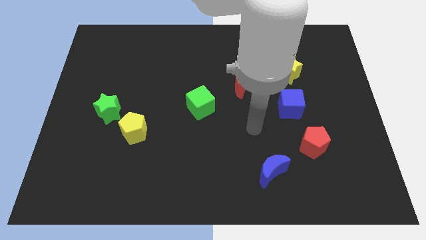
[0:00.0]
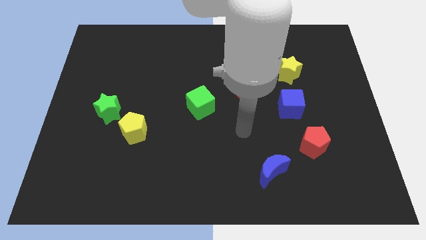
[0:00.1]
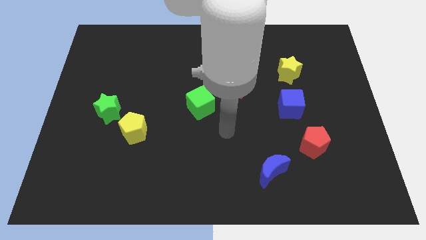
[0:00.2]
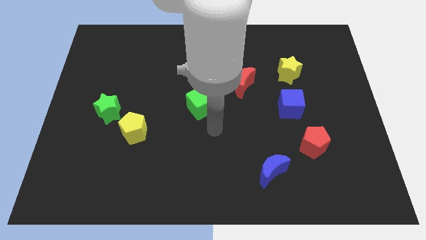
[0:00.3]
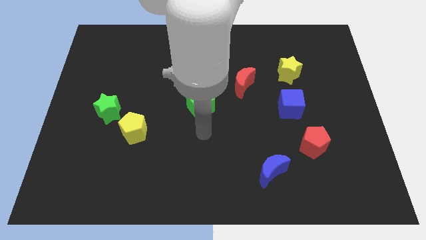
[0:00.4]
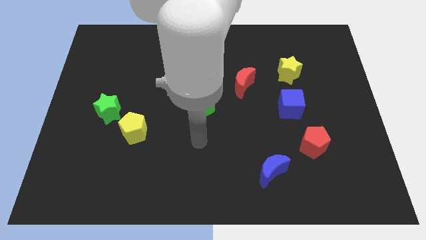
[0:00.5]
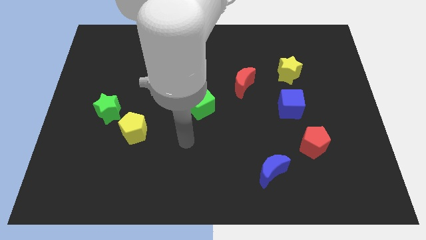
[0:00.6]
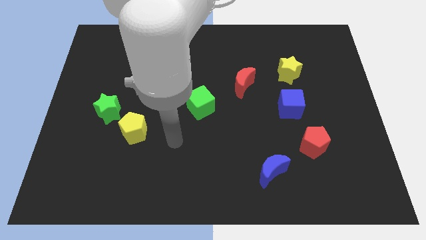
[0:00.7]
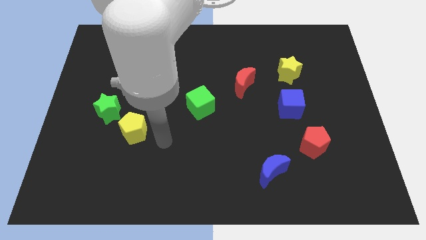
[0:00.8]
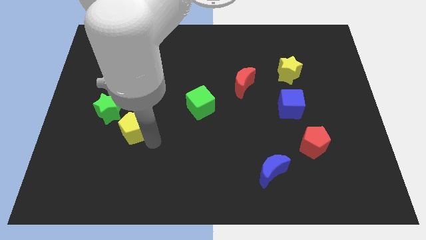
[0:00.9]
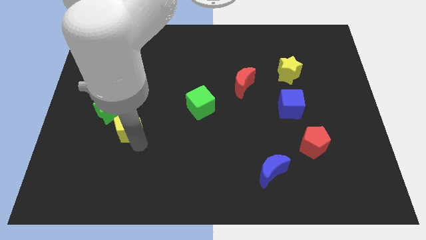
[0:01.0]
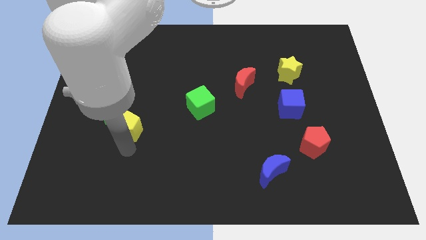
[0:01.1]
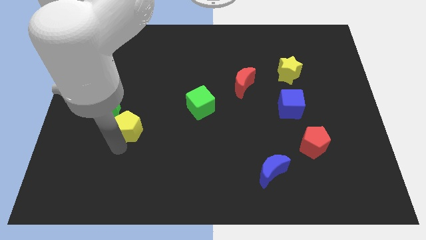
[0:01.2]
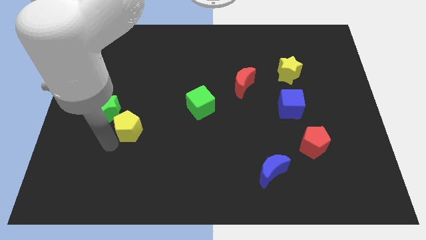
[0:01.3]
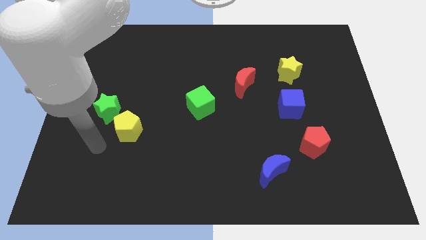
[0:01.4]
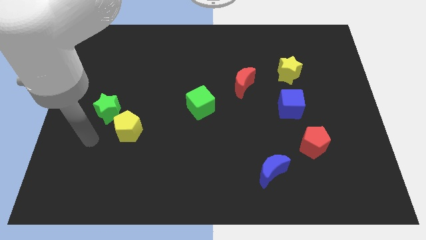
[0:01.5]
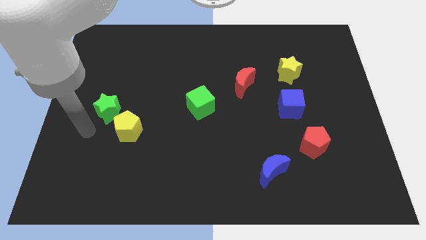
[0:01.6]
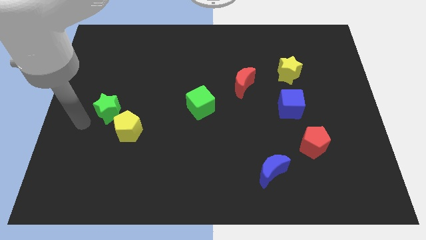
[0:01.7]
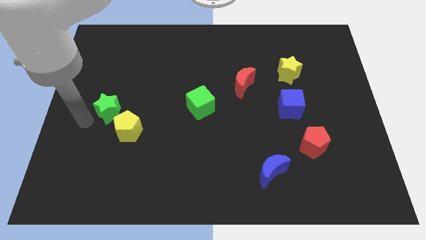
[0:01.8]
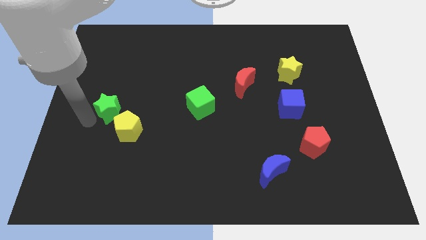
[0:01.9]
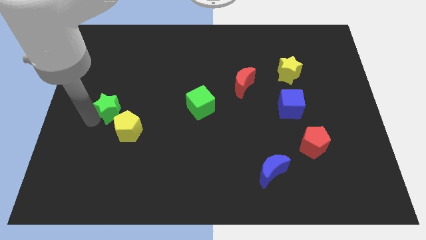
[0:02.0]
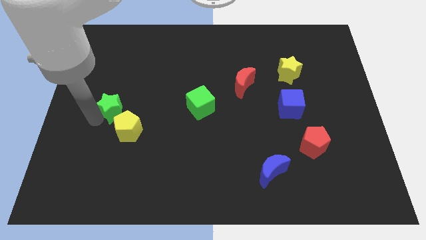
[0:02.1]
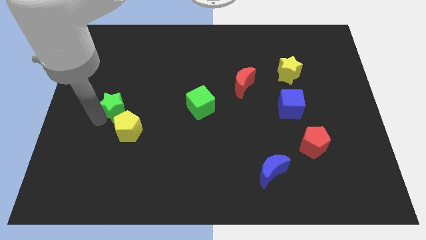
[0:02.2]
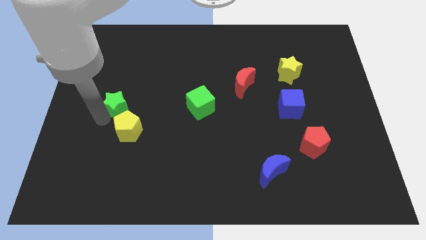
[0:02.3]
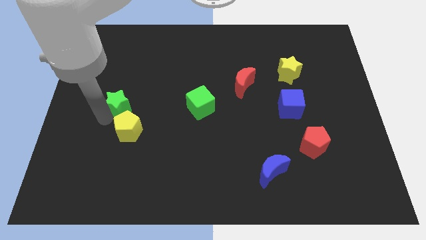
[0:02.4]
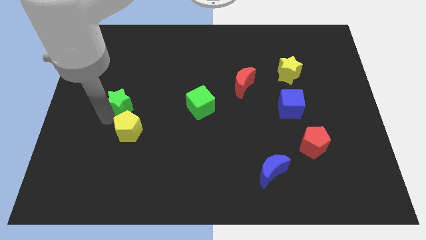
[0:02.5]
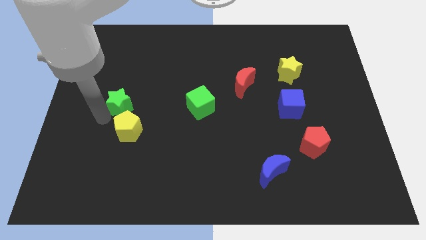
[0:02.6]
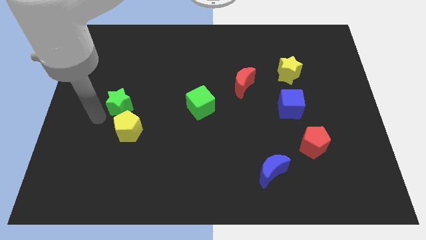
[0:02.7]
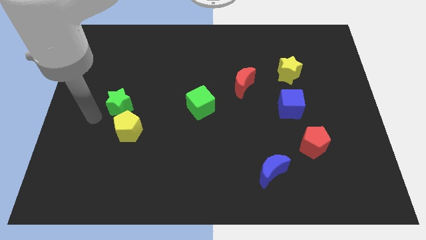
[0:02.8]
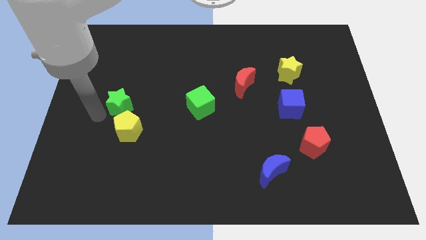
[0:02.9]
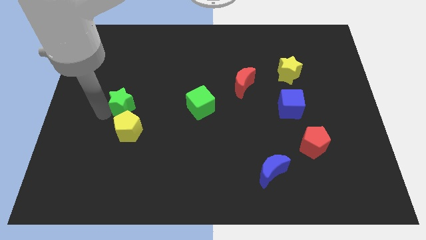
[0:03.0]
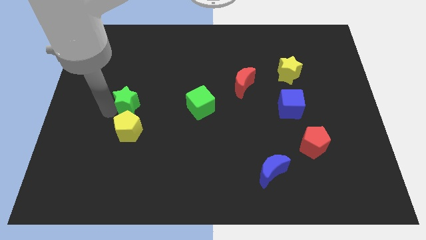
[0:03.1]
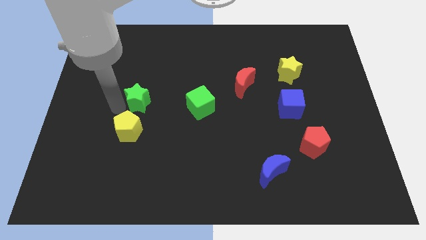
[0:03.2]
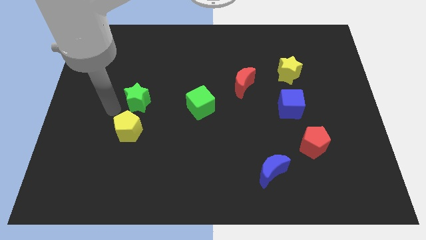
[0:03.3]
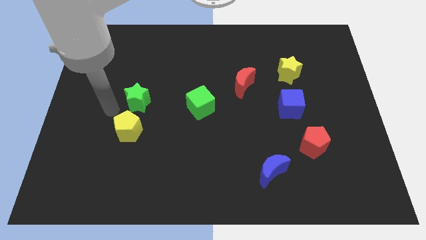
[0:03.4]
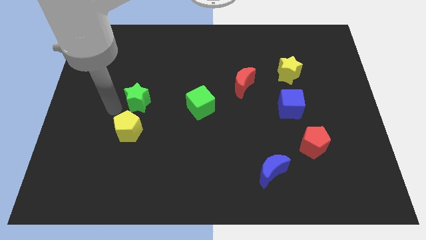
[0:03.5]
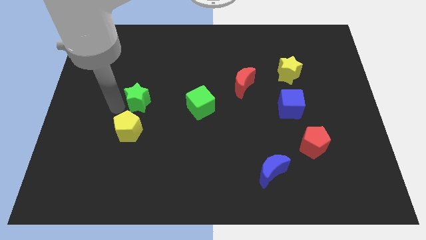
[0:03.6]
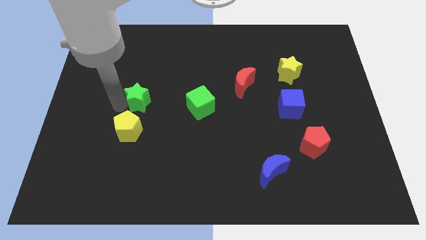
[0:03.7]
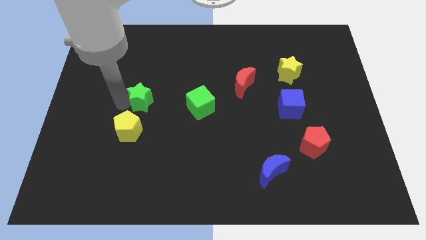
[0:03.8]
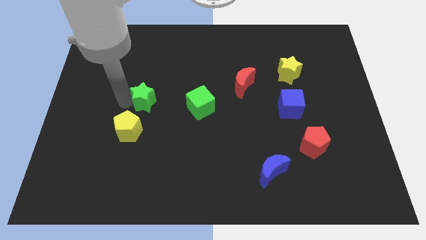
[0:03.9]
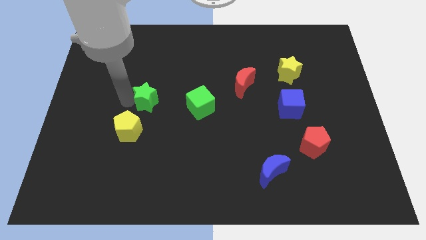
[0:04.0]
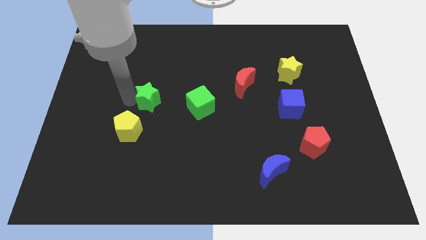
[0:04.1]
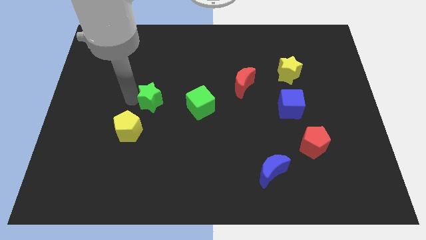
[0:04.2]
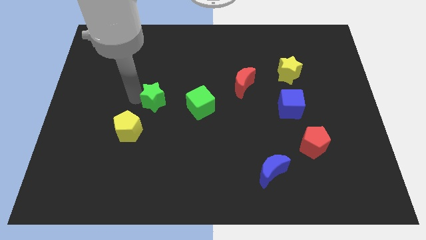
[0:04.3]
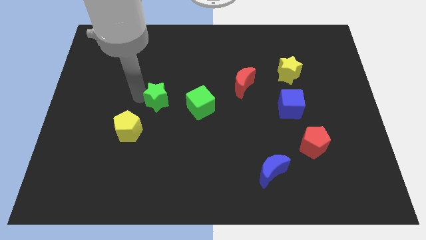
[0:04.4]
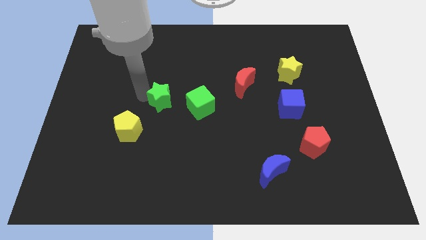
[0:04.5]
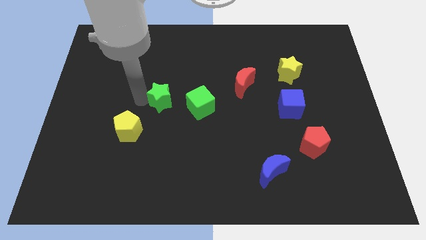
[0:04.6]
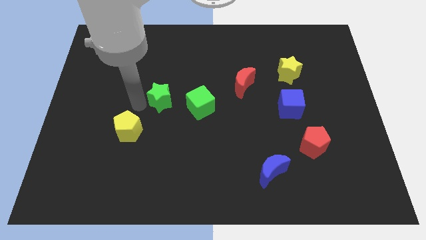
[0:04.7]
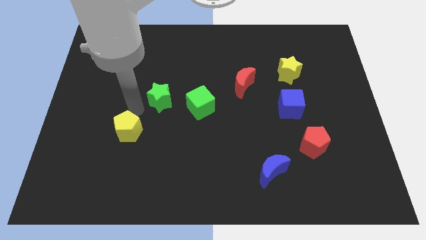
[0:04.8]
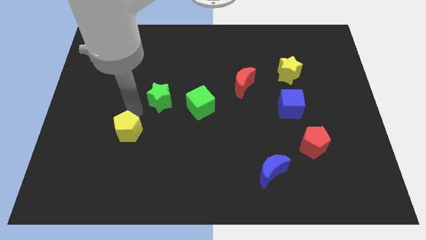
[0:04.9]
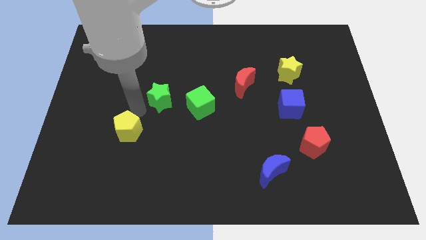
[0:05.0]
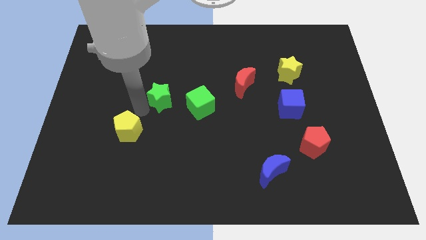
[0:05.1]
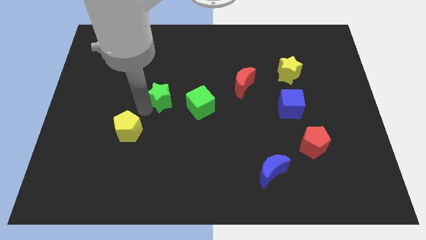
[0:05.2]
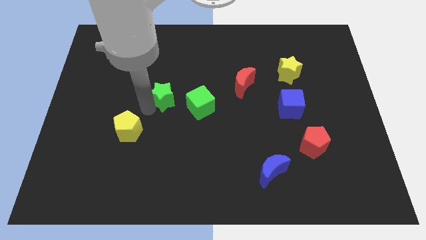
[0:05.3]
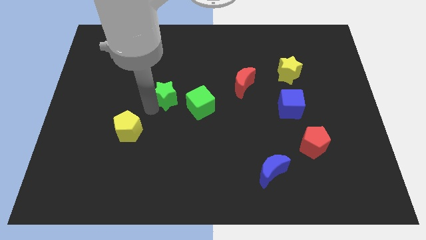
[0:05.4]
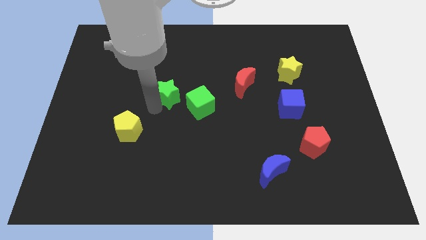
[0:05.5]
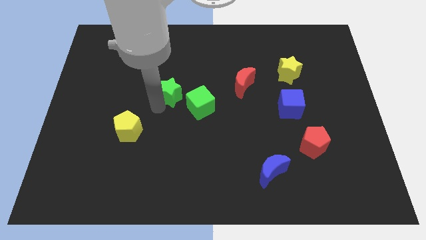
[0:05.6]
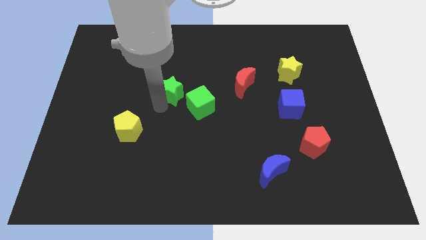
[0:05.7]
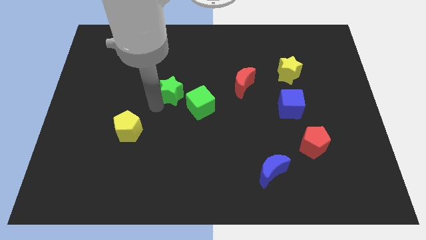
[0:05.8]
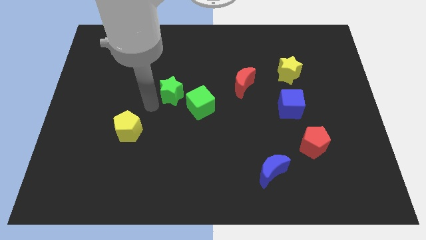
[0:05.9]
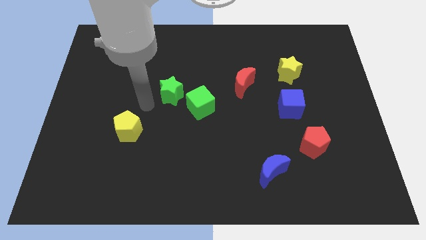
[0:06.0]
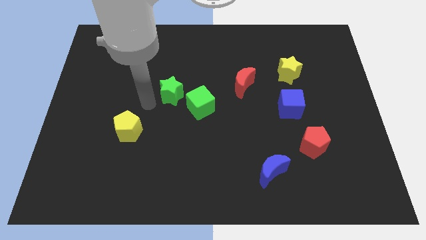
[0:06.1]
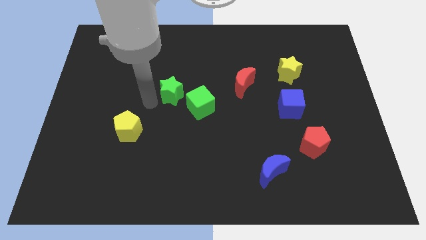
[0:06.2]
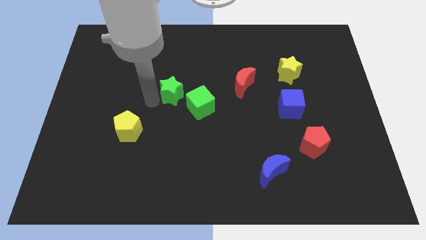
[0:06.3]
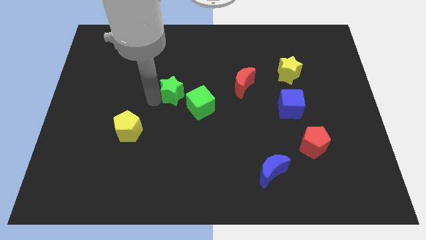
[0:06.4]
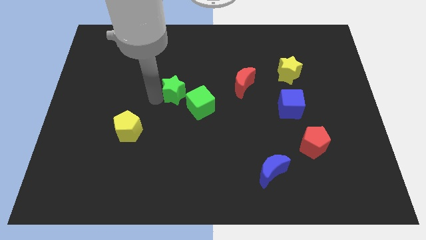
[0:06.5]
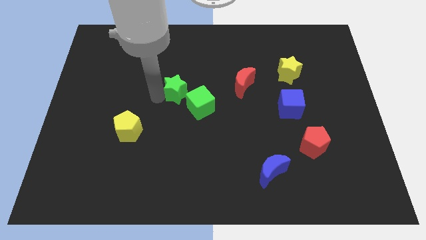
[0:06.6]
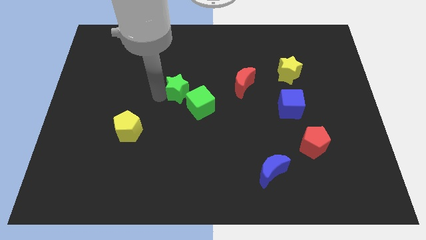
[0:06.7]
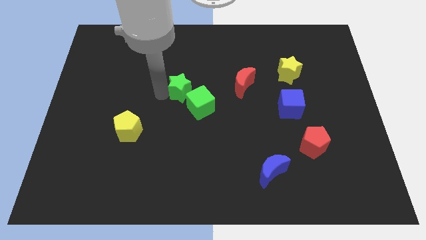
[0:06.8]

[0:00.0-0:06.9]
slide the green star to the left side of the red moon
